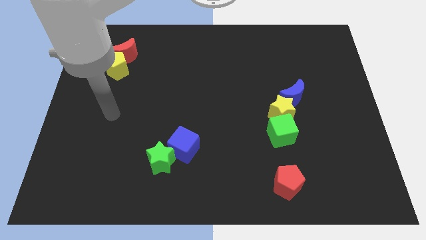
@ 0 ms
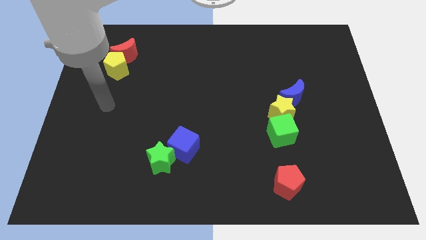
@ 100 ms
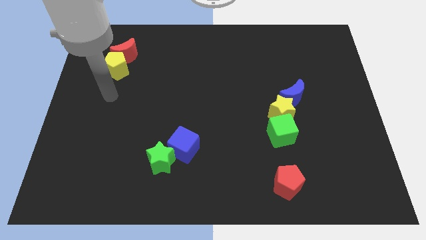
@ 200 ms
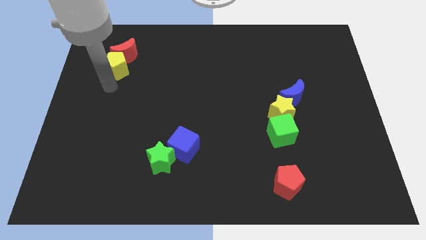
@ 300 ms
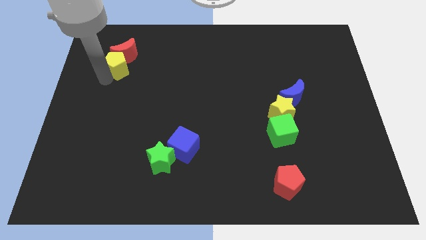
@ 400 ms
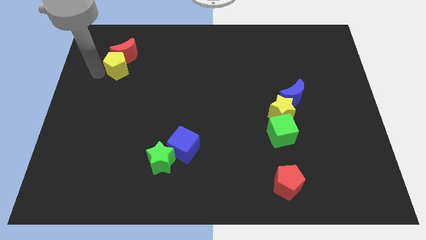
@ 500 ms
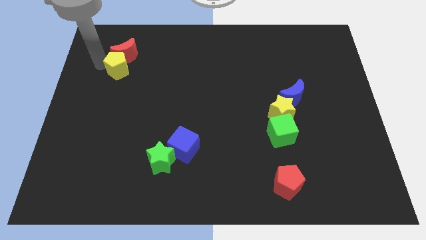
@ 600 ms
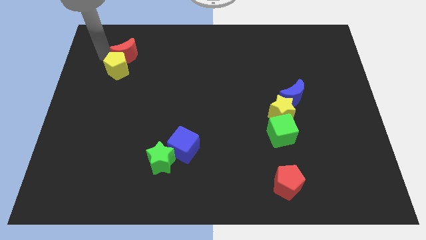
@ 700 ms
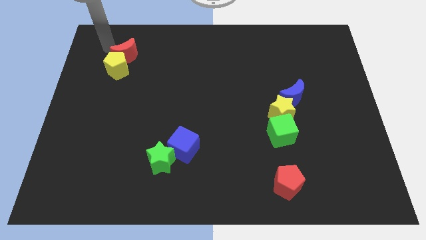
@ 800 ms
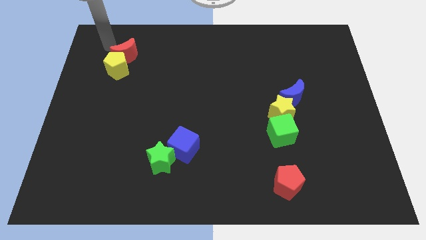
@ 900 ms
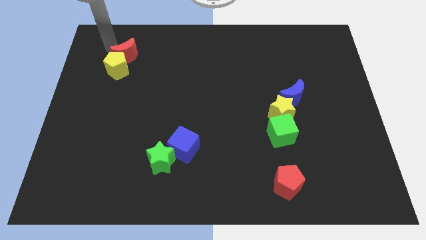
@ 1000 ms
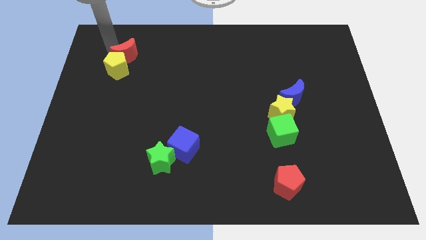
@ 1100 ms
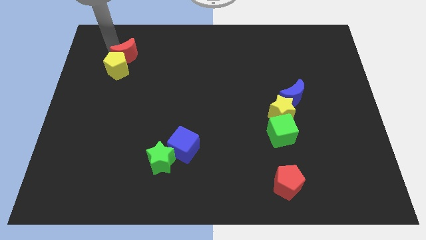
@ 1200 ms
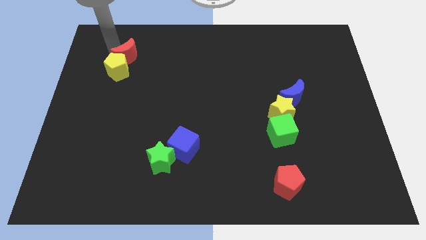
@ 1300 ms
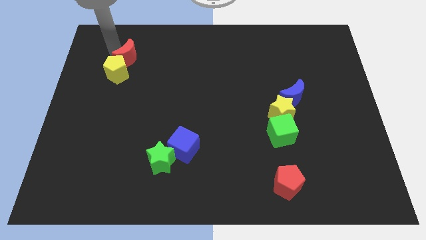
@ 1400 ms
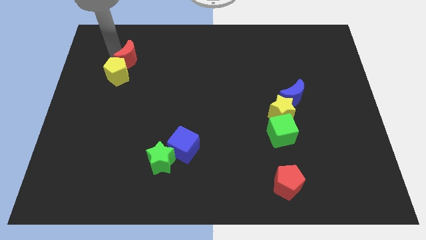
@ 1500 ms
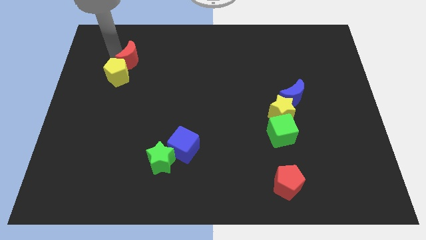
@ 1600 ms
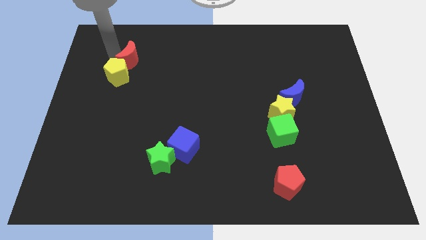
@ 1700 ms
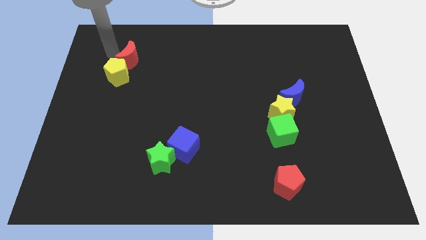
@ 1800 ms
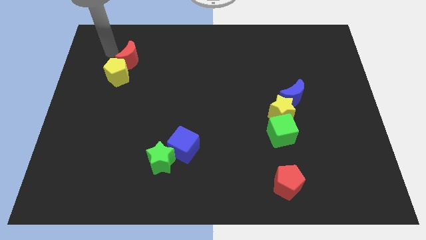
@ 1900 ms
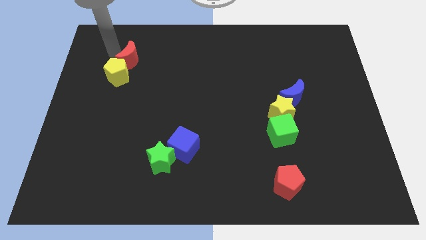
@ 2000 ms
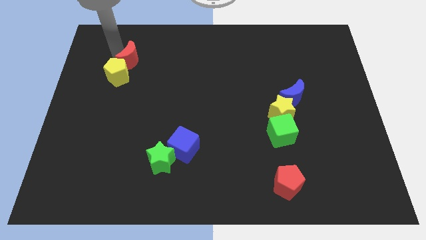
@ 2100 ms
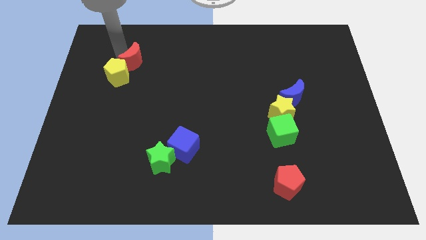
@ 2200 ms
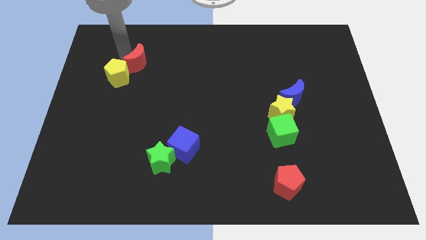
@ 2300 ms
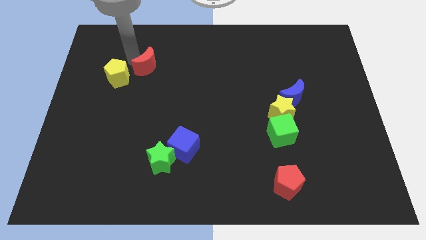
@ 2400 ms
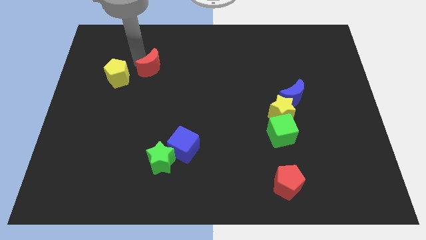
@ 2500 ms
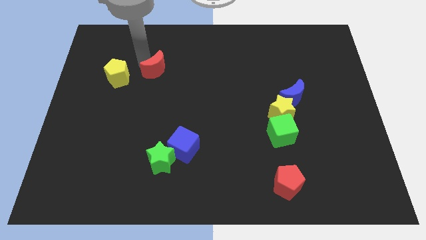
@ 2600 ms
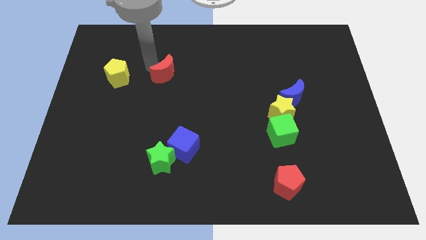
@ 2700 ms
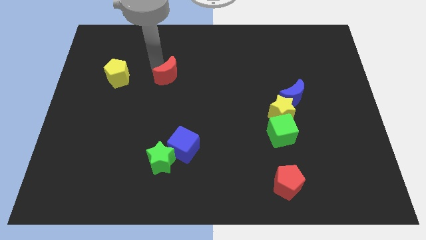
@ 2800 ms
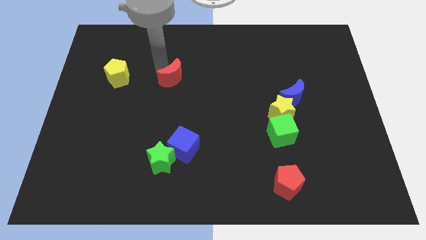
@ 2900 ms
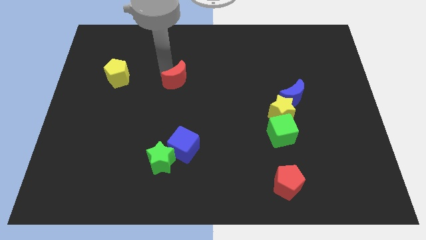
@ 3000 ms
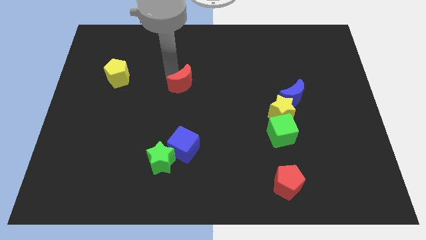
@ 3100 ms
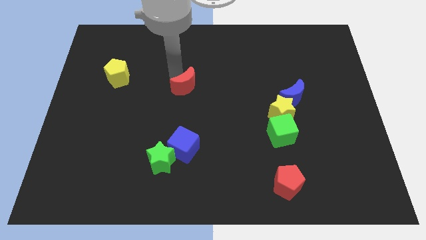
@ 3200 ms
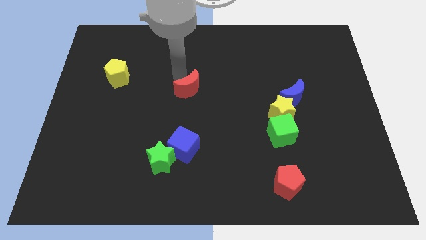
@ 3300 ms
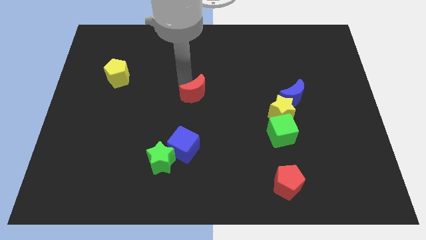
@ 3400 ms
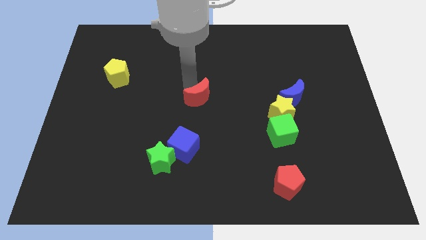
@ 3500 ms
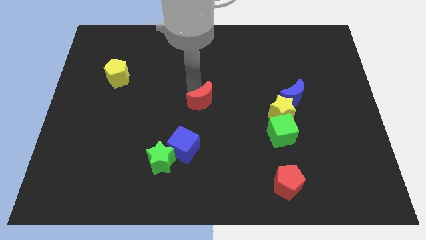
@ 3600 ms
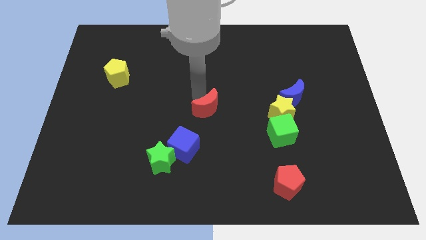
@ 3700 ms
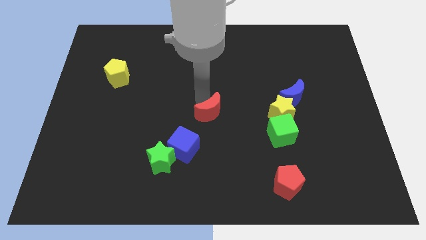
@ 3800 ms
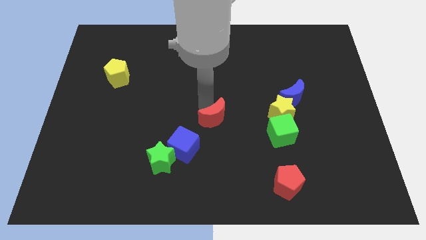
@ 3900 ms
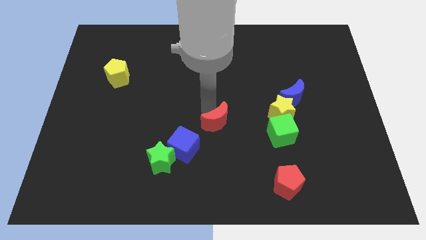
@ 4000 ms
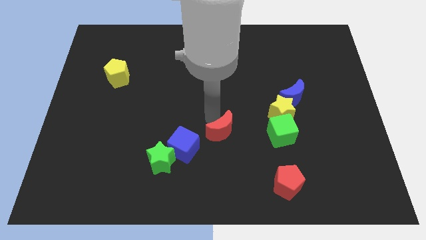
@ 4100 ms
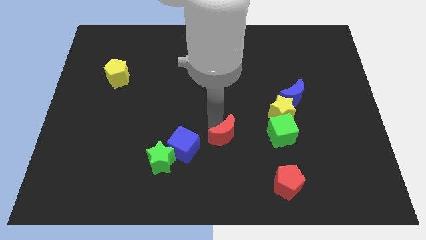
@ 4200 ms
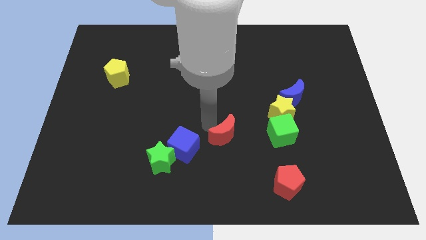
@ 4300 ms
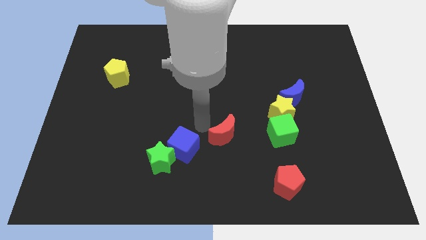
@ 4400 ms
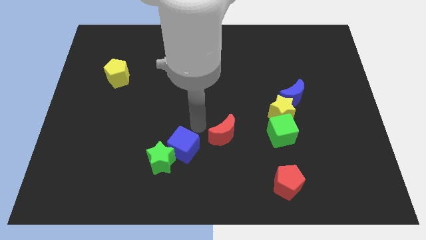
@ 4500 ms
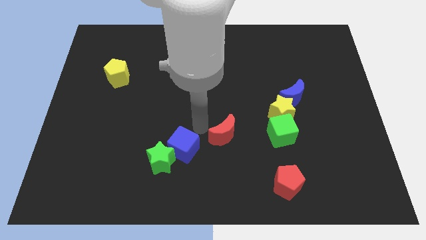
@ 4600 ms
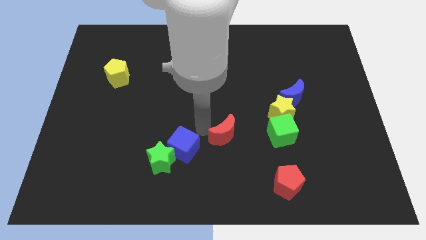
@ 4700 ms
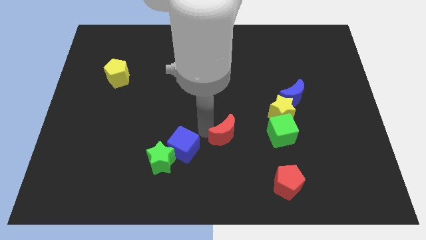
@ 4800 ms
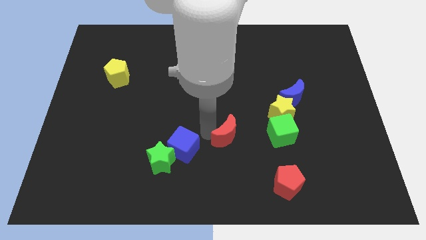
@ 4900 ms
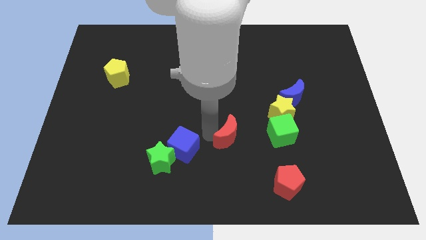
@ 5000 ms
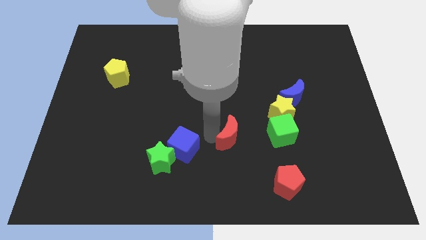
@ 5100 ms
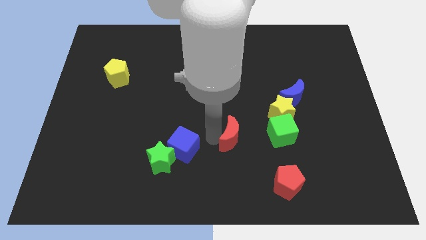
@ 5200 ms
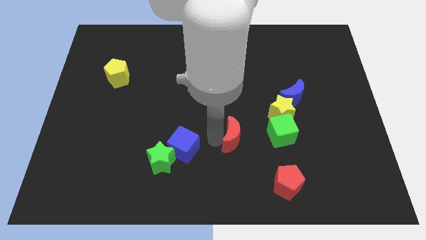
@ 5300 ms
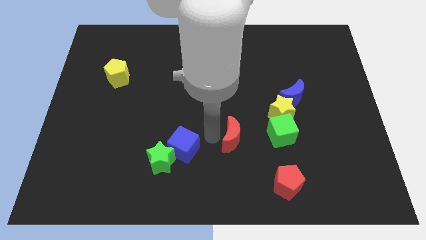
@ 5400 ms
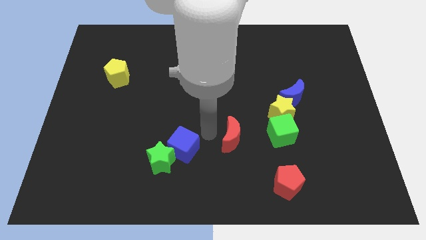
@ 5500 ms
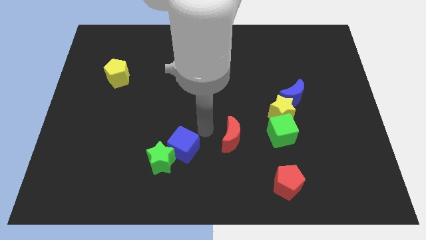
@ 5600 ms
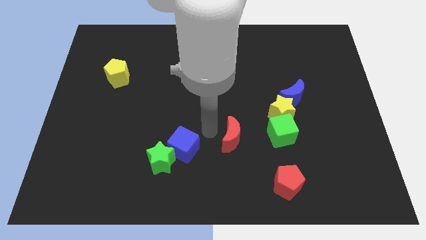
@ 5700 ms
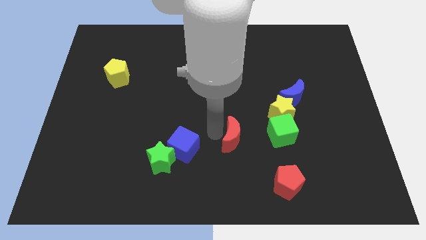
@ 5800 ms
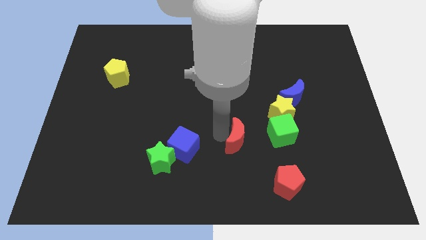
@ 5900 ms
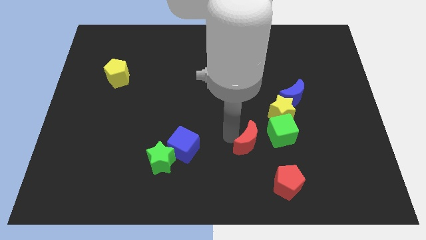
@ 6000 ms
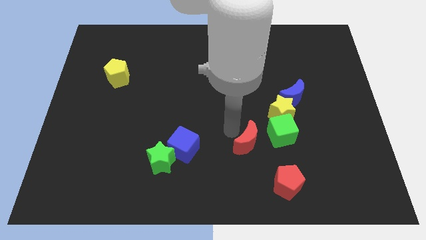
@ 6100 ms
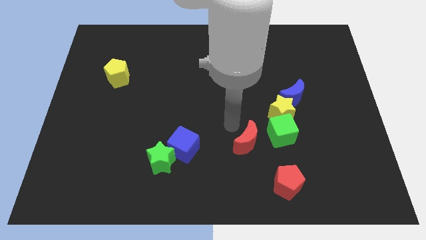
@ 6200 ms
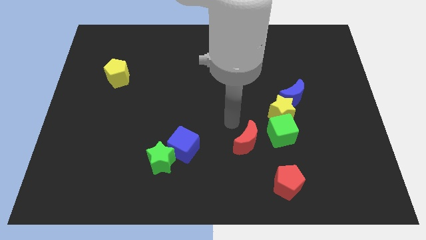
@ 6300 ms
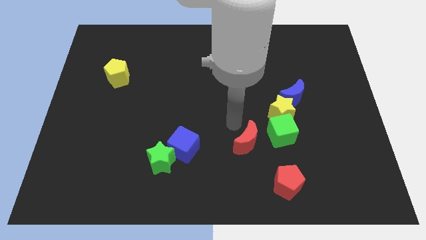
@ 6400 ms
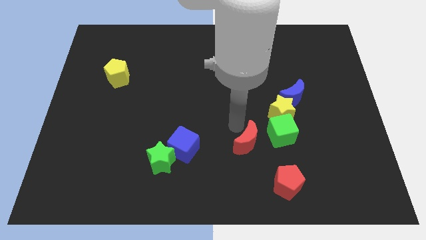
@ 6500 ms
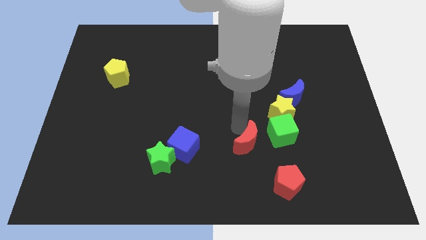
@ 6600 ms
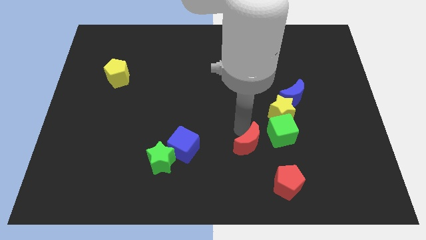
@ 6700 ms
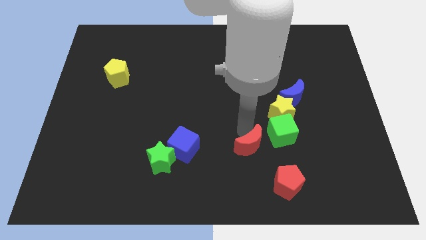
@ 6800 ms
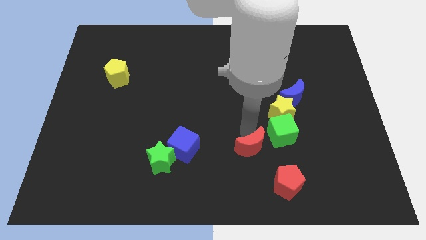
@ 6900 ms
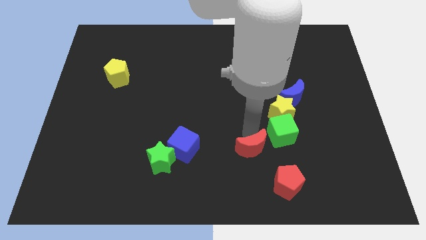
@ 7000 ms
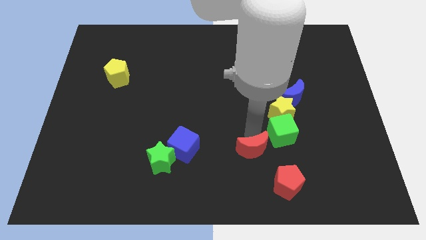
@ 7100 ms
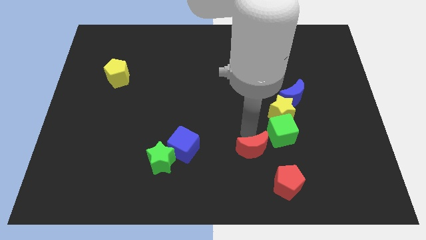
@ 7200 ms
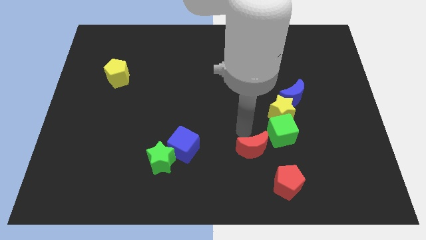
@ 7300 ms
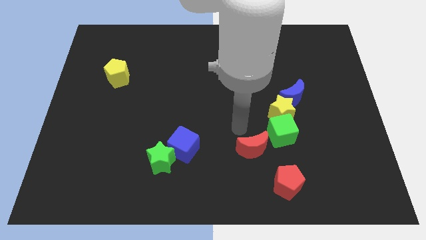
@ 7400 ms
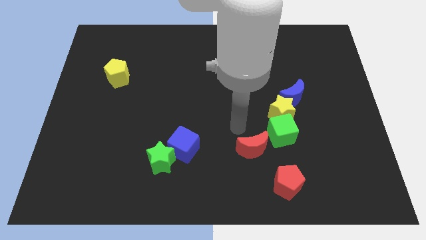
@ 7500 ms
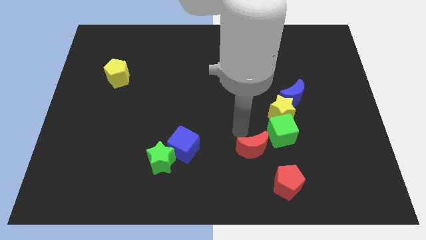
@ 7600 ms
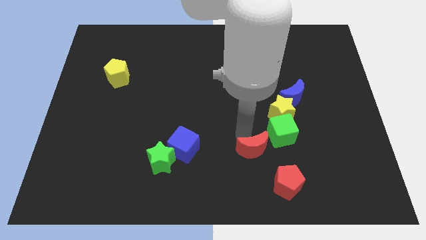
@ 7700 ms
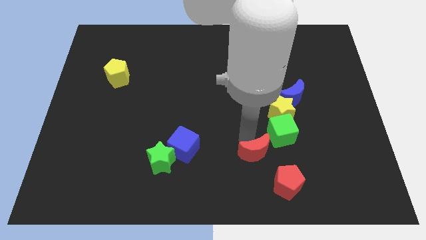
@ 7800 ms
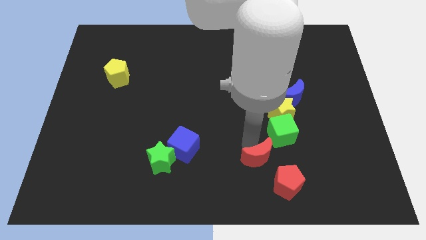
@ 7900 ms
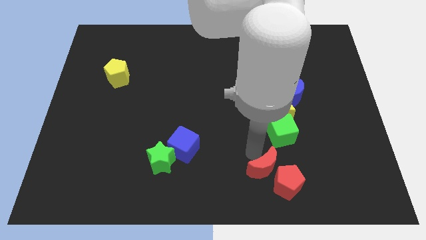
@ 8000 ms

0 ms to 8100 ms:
push the red moon close to the red pentagon
